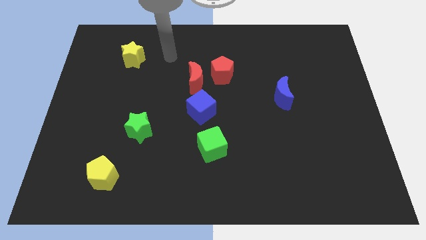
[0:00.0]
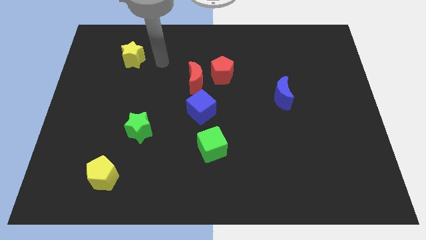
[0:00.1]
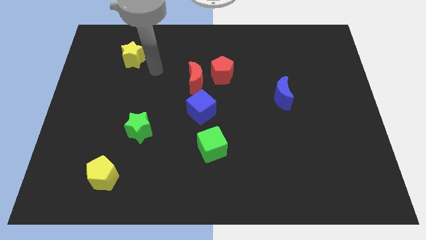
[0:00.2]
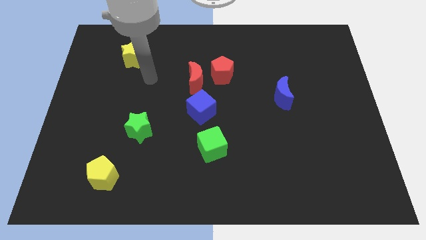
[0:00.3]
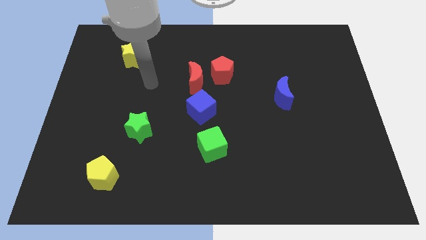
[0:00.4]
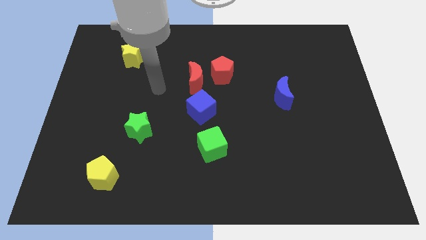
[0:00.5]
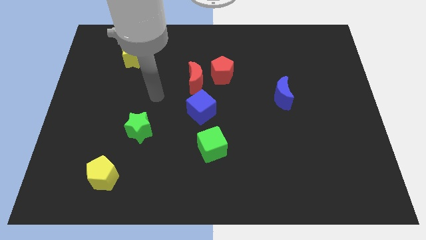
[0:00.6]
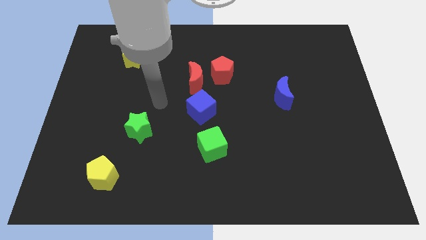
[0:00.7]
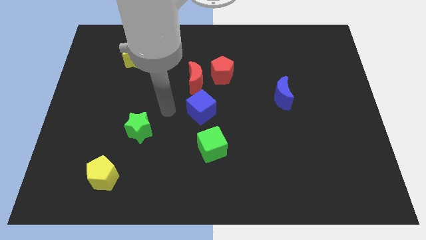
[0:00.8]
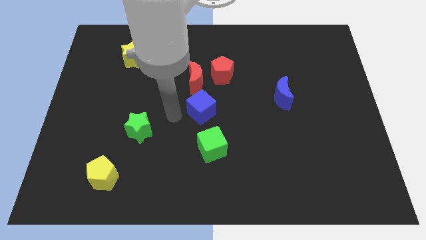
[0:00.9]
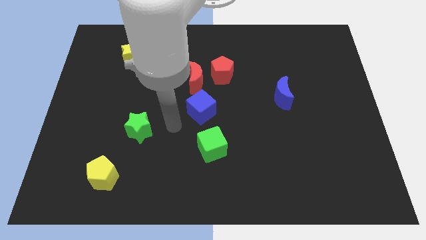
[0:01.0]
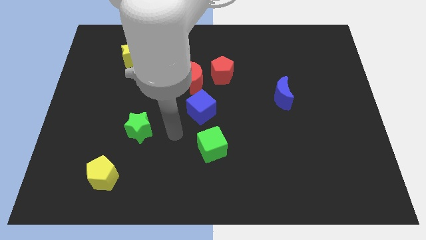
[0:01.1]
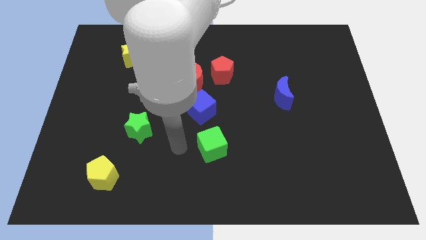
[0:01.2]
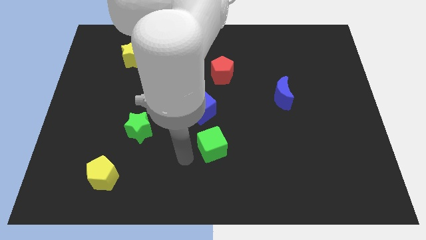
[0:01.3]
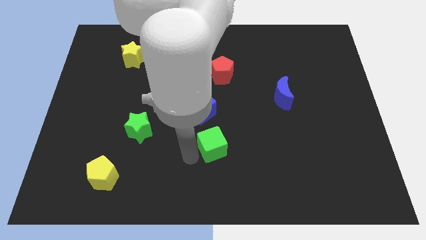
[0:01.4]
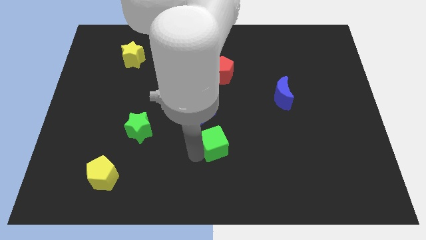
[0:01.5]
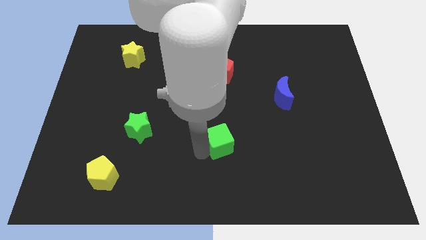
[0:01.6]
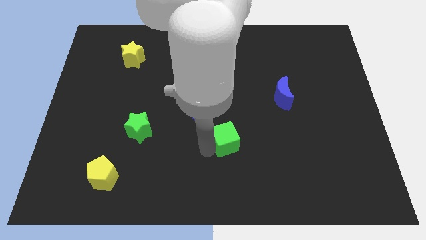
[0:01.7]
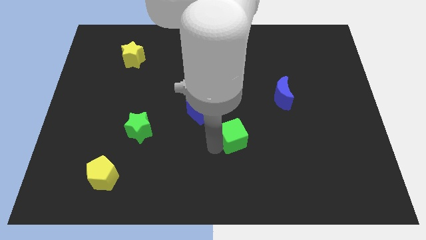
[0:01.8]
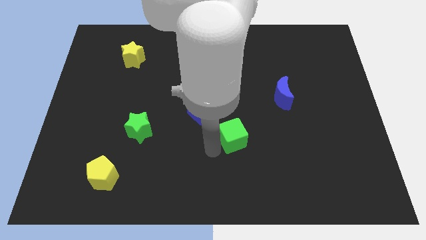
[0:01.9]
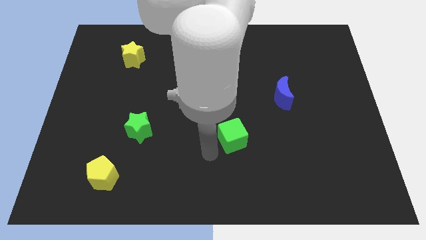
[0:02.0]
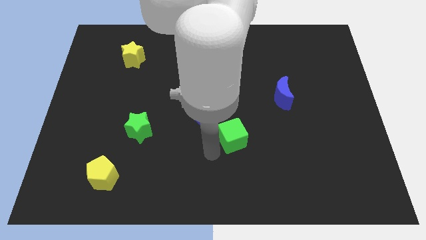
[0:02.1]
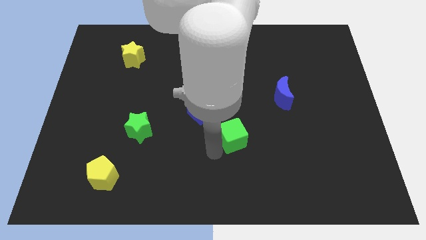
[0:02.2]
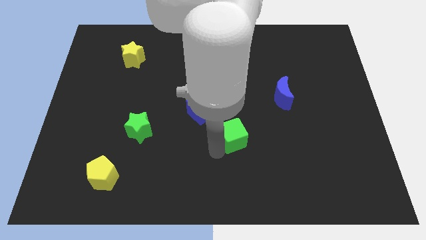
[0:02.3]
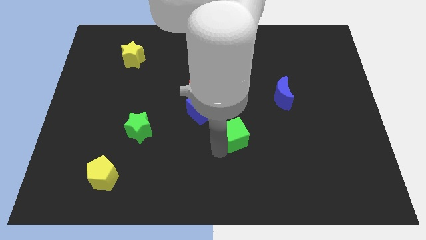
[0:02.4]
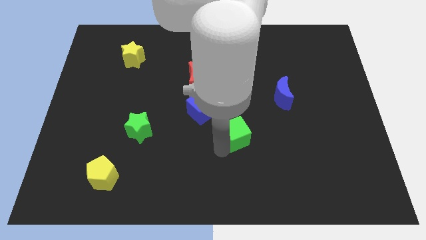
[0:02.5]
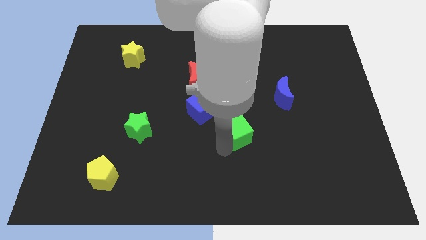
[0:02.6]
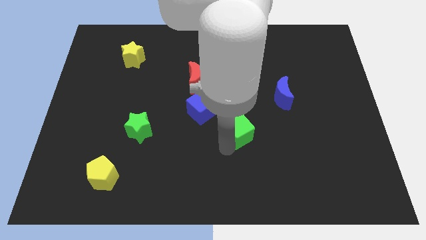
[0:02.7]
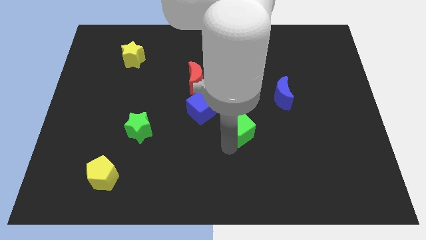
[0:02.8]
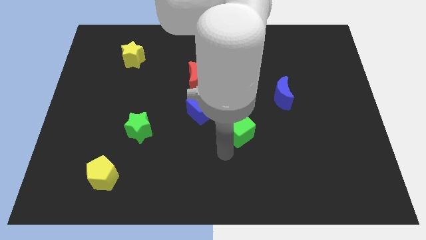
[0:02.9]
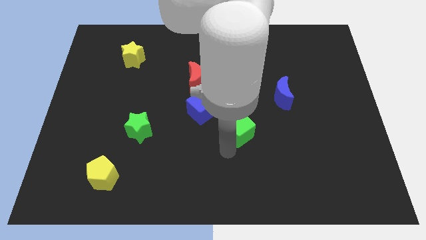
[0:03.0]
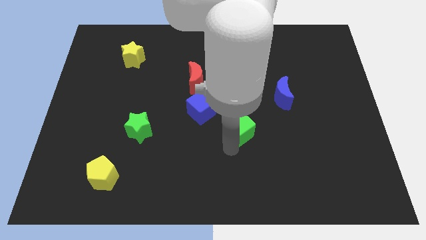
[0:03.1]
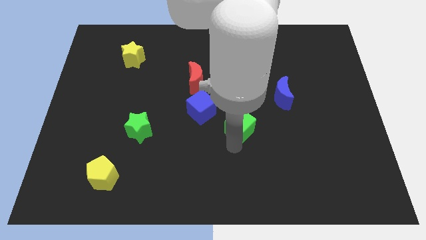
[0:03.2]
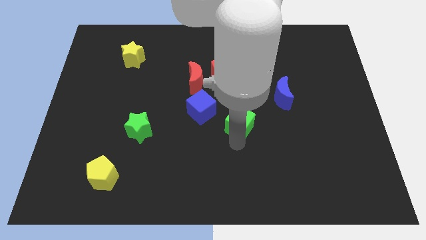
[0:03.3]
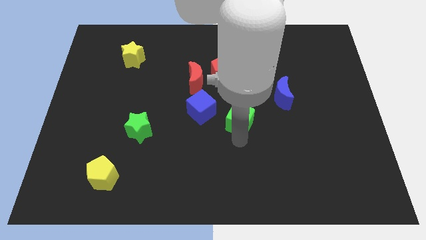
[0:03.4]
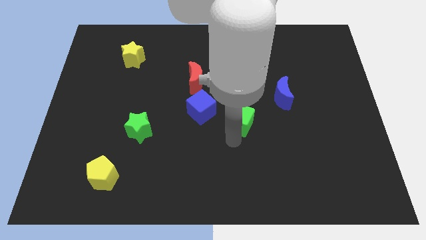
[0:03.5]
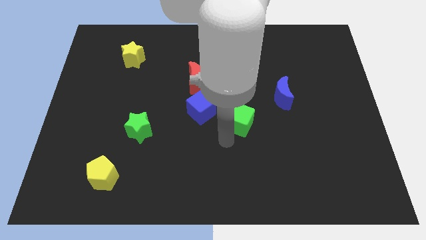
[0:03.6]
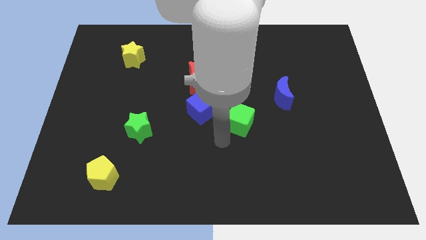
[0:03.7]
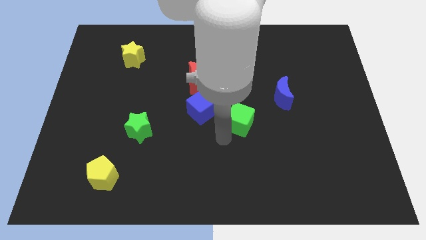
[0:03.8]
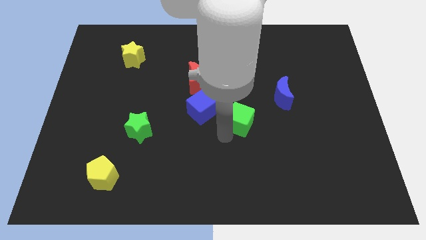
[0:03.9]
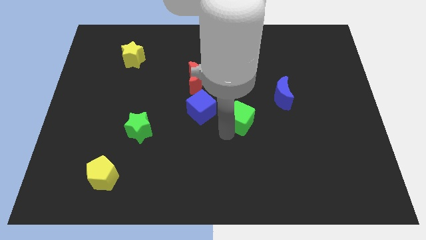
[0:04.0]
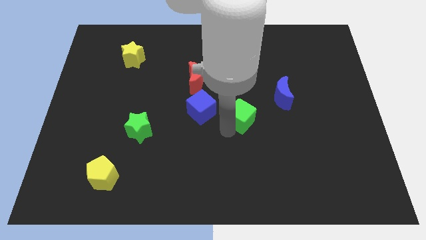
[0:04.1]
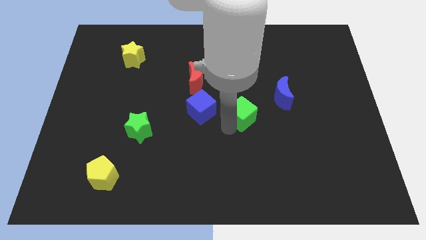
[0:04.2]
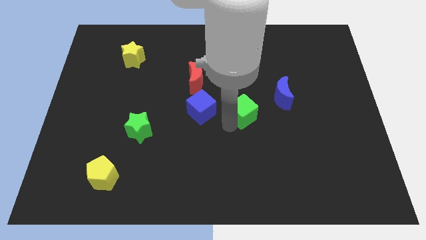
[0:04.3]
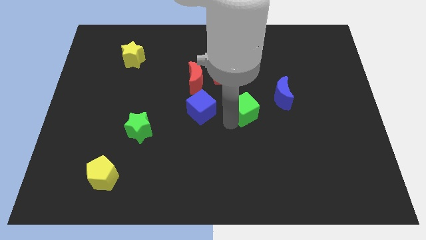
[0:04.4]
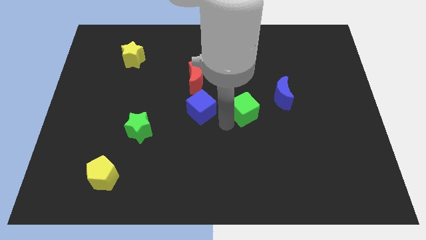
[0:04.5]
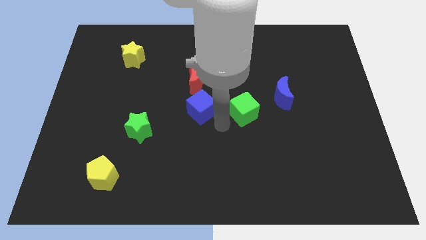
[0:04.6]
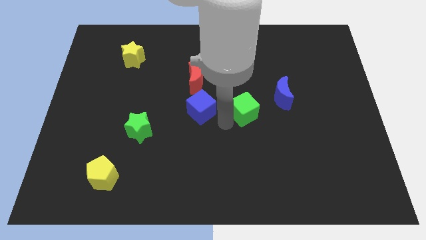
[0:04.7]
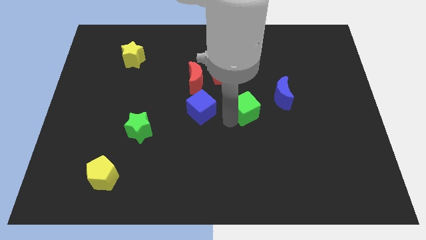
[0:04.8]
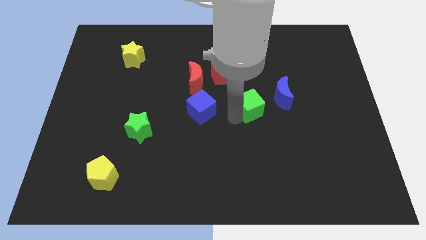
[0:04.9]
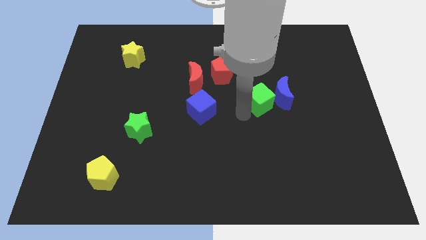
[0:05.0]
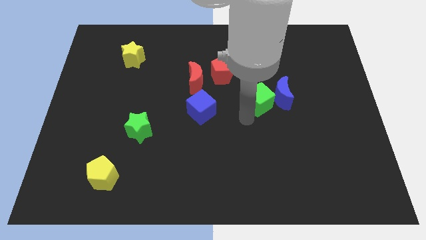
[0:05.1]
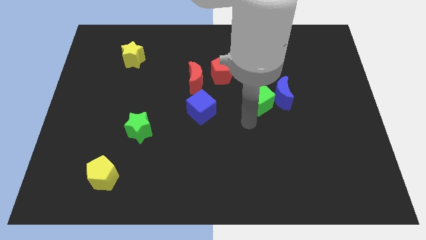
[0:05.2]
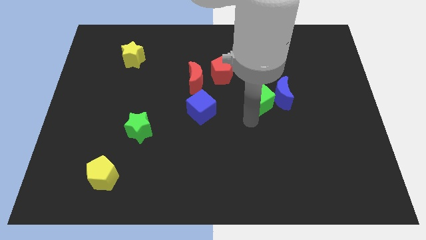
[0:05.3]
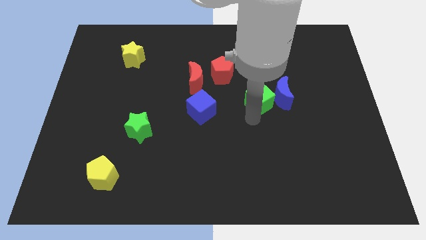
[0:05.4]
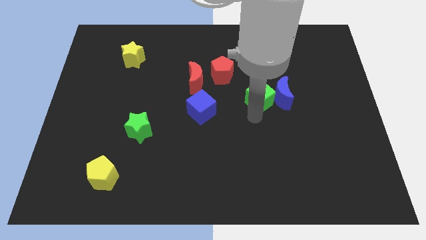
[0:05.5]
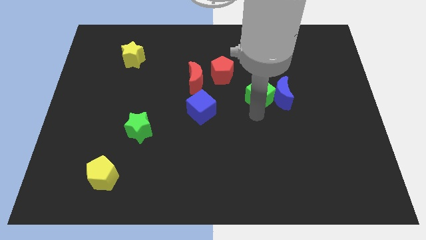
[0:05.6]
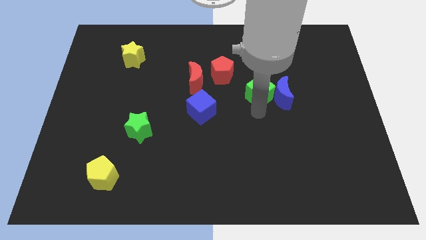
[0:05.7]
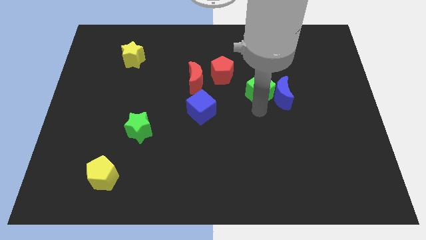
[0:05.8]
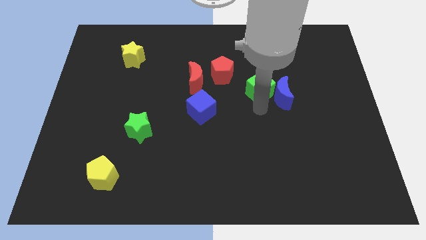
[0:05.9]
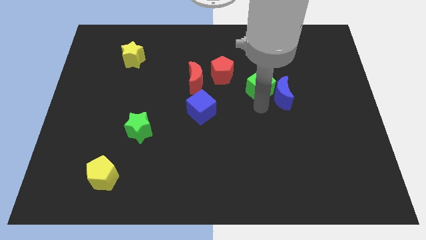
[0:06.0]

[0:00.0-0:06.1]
move the green cube up and to the right

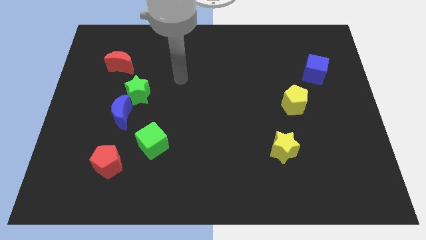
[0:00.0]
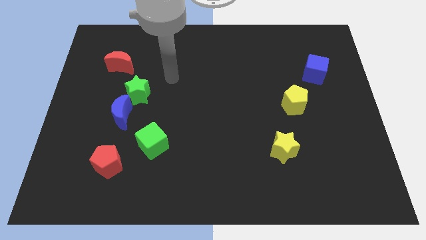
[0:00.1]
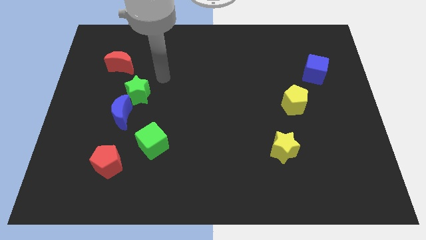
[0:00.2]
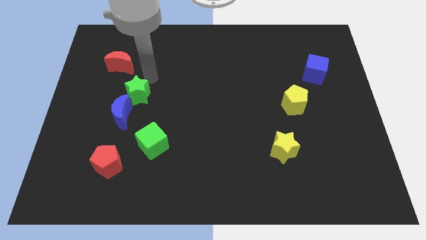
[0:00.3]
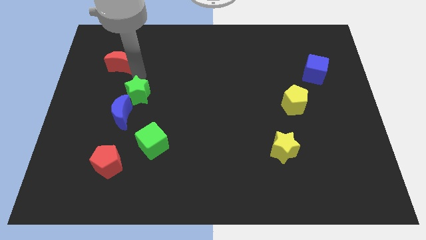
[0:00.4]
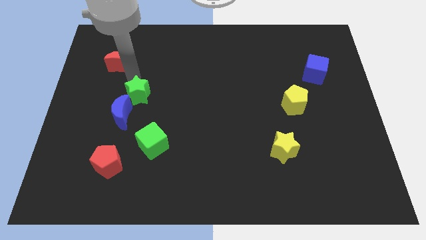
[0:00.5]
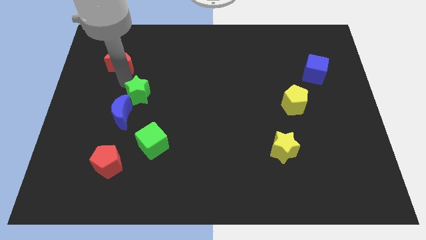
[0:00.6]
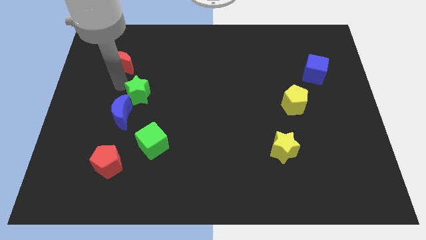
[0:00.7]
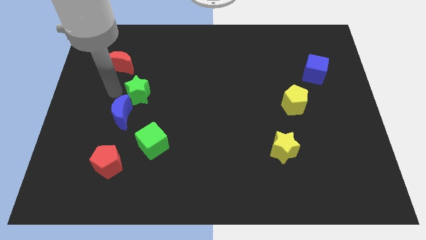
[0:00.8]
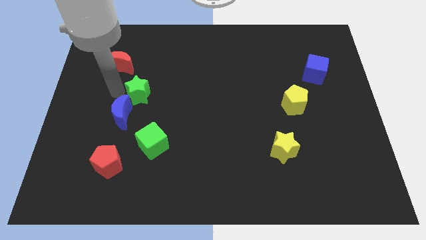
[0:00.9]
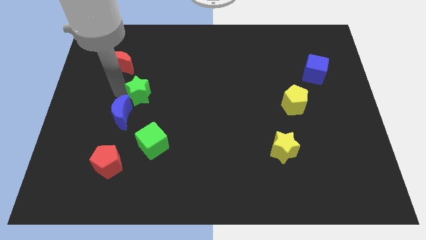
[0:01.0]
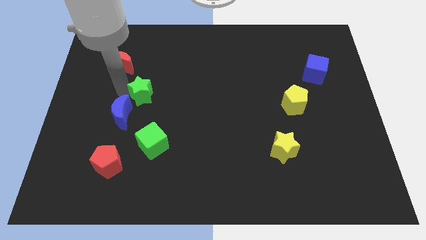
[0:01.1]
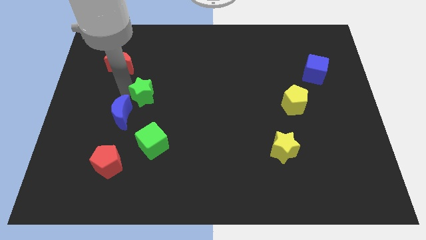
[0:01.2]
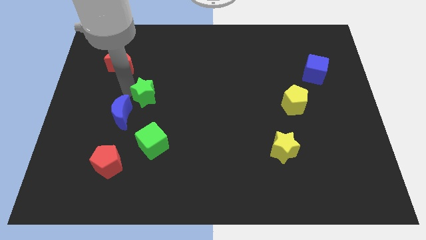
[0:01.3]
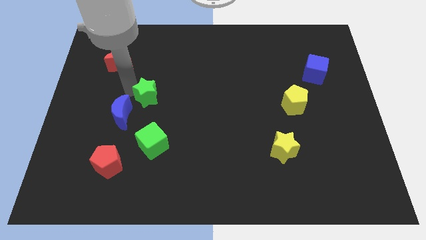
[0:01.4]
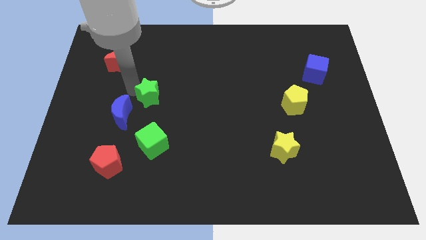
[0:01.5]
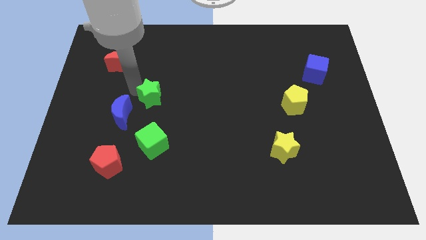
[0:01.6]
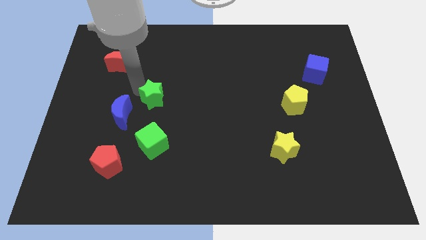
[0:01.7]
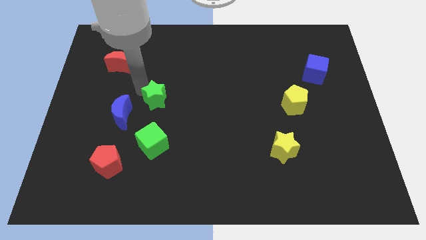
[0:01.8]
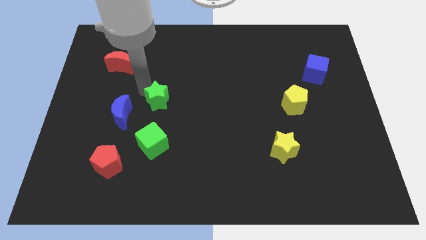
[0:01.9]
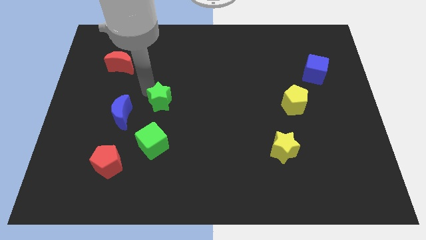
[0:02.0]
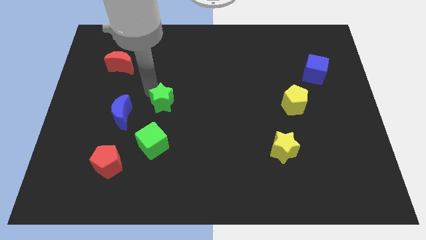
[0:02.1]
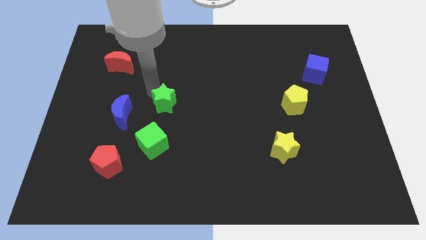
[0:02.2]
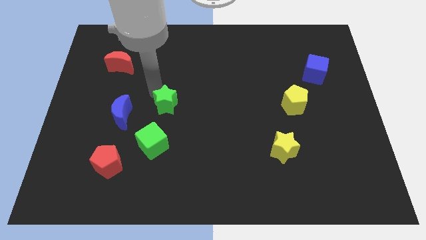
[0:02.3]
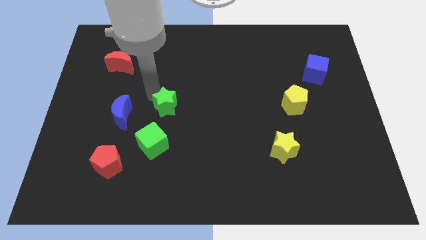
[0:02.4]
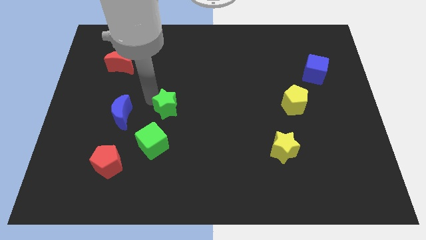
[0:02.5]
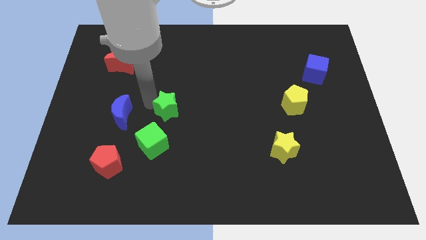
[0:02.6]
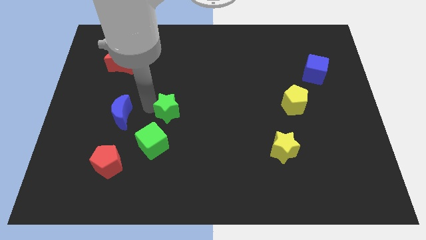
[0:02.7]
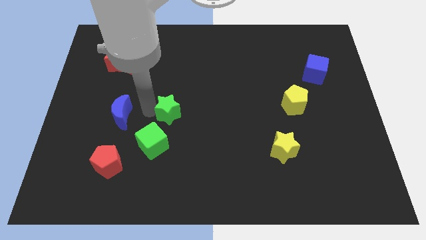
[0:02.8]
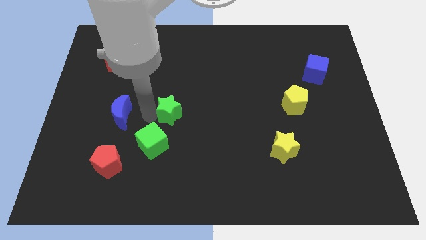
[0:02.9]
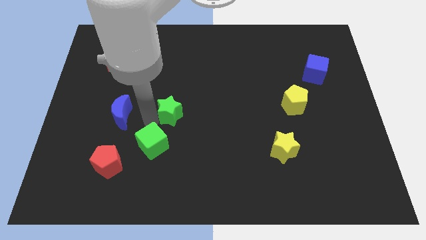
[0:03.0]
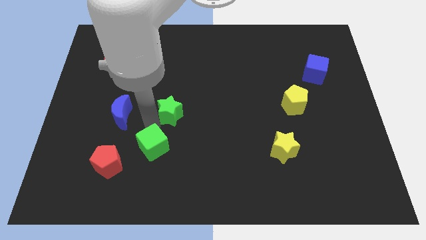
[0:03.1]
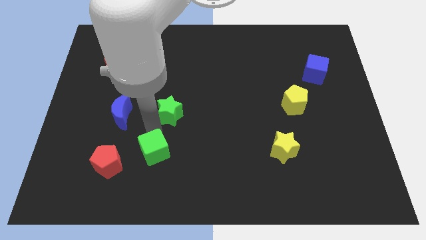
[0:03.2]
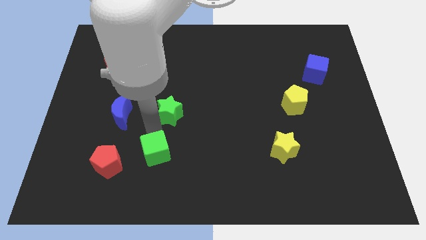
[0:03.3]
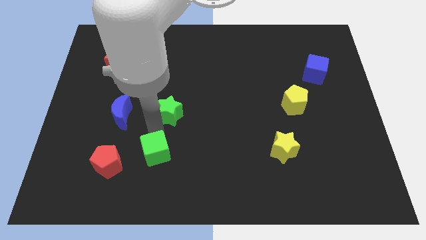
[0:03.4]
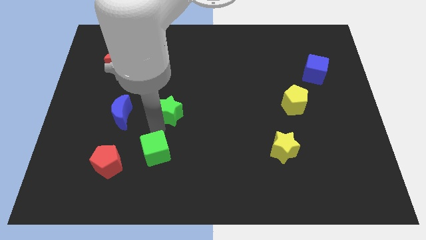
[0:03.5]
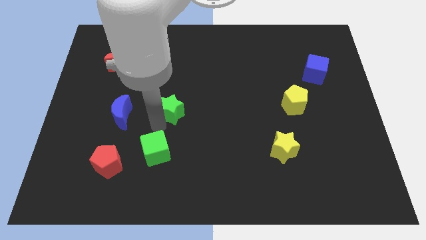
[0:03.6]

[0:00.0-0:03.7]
push the green star right a bit
